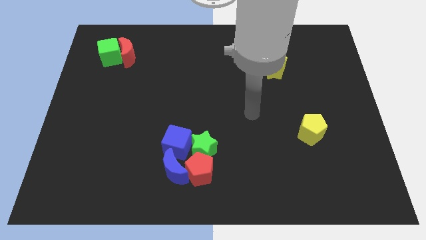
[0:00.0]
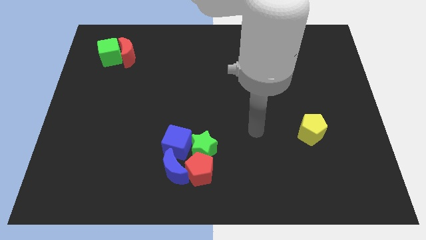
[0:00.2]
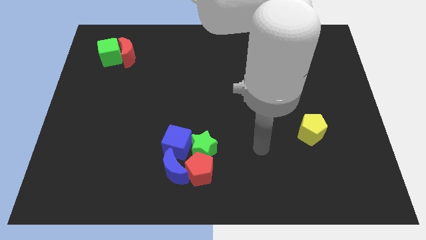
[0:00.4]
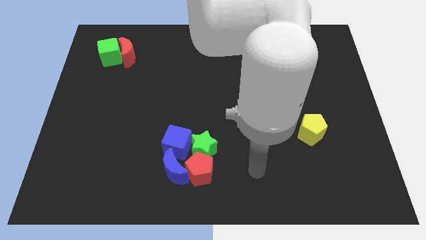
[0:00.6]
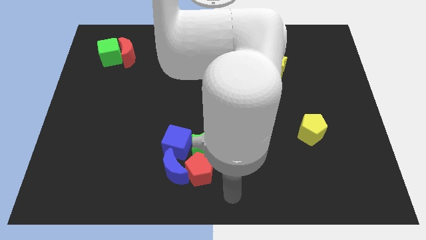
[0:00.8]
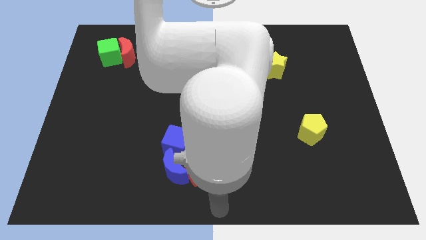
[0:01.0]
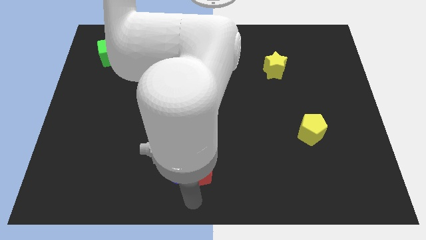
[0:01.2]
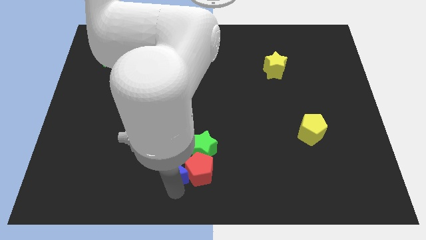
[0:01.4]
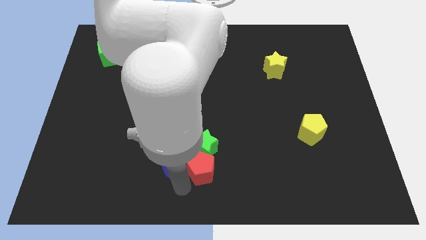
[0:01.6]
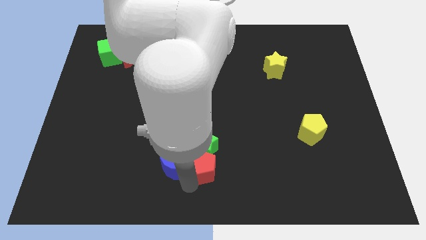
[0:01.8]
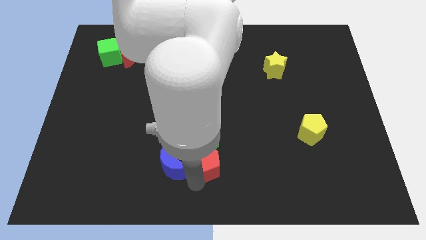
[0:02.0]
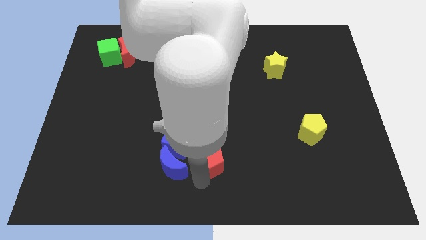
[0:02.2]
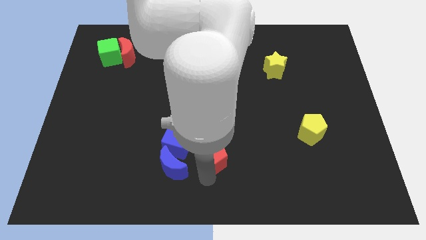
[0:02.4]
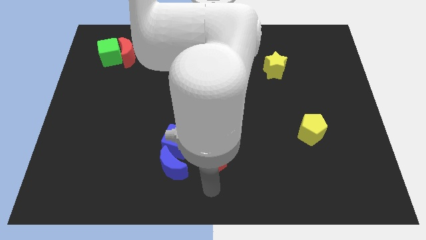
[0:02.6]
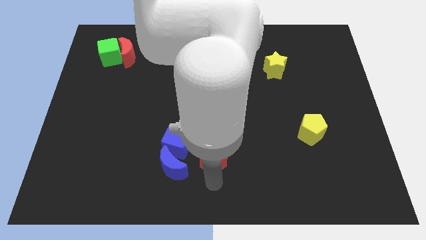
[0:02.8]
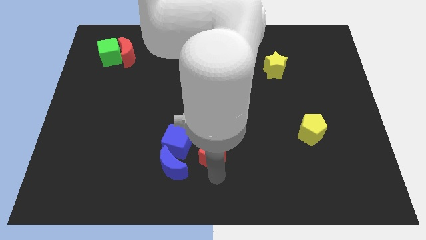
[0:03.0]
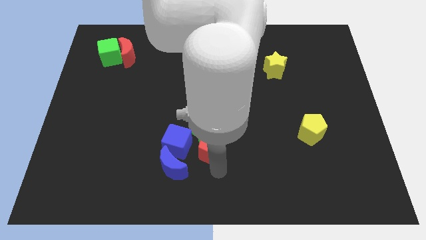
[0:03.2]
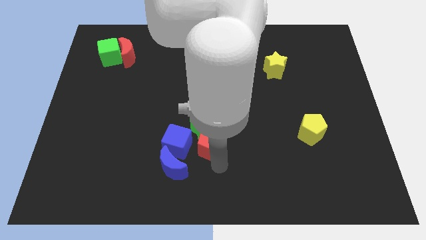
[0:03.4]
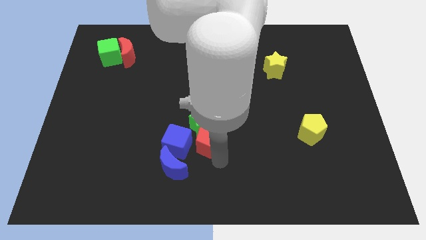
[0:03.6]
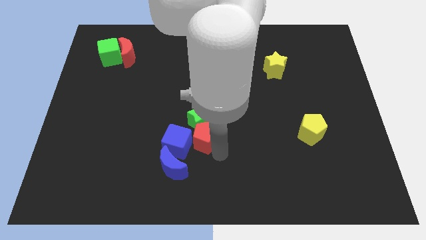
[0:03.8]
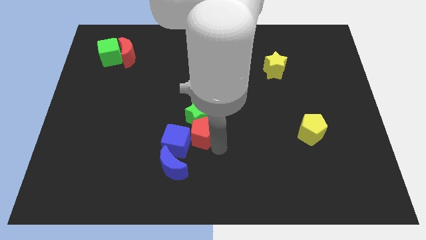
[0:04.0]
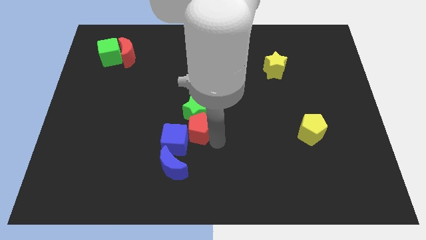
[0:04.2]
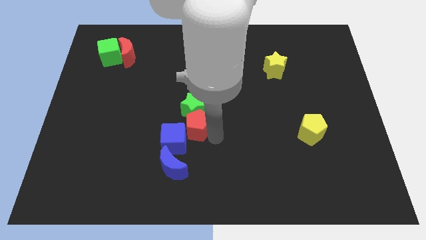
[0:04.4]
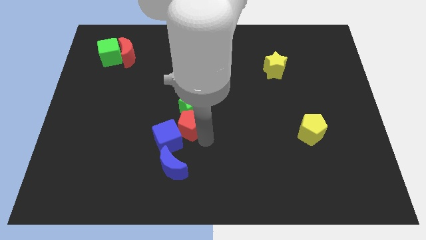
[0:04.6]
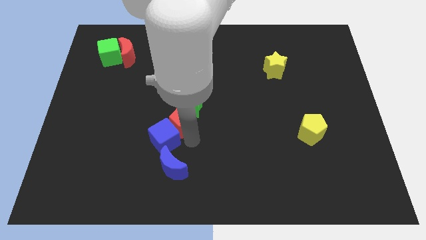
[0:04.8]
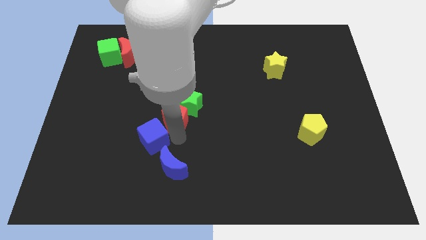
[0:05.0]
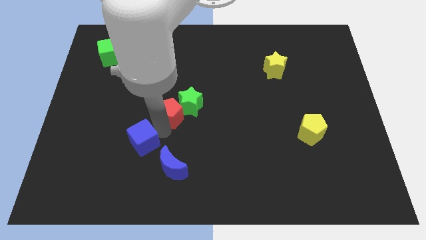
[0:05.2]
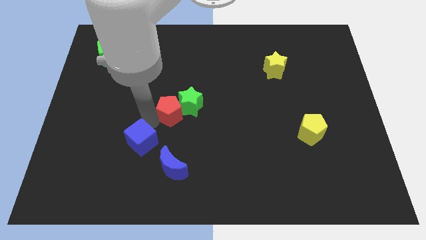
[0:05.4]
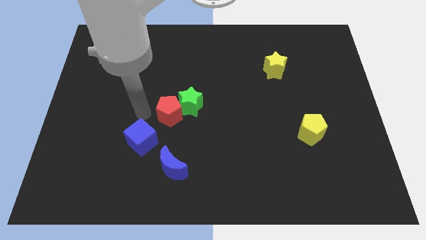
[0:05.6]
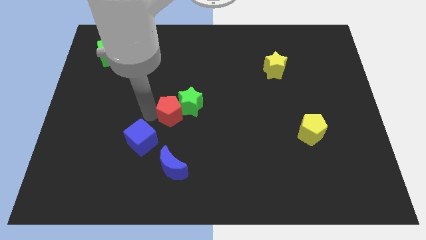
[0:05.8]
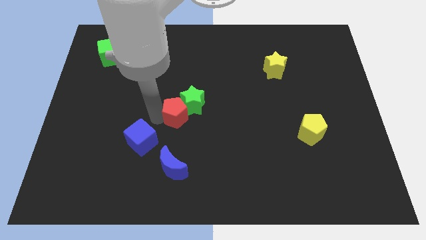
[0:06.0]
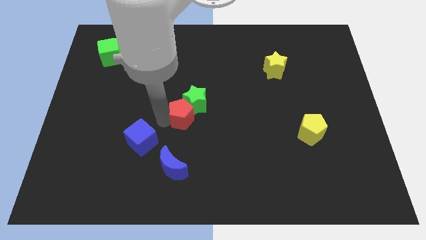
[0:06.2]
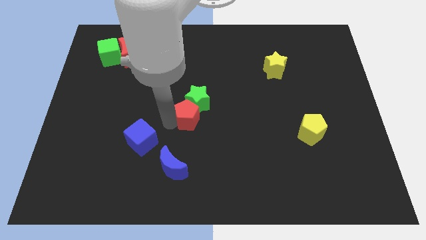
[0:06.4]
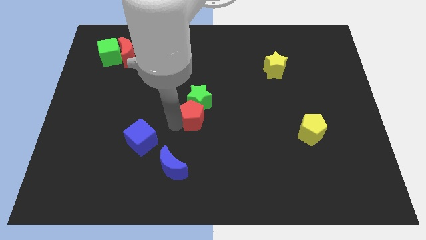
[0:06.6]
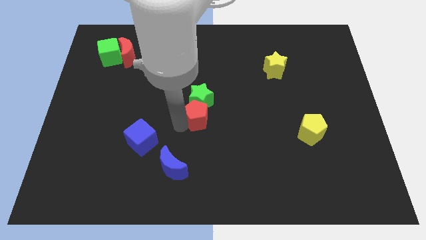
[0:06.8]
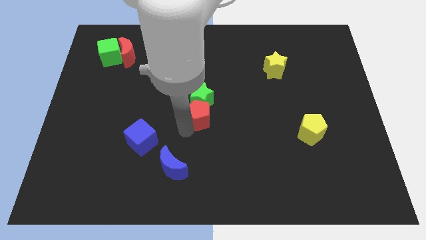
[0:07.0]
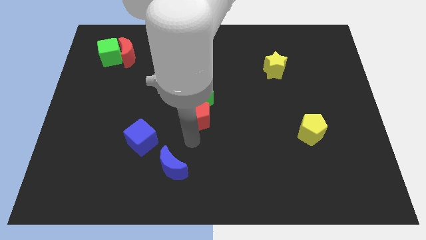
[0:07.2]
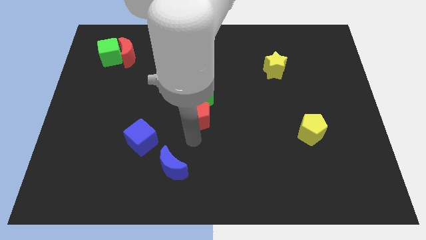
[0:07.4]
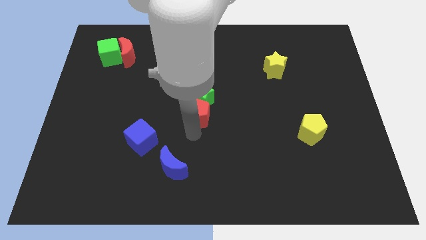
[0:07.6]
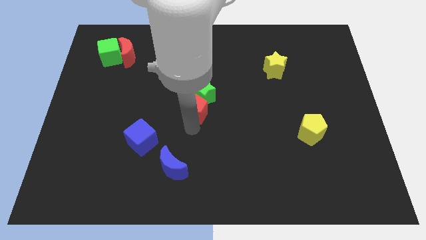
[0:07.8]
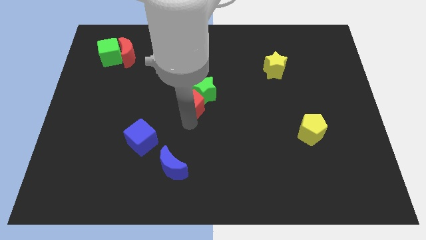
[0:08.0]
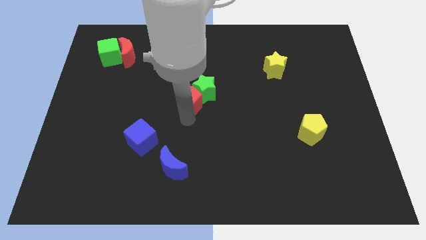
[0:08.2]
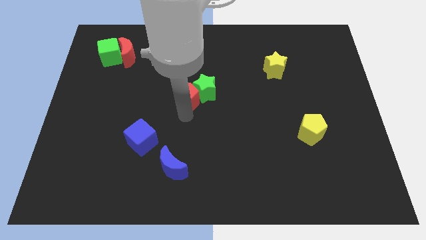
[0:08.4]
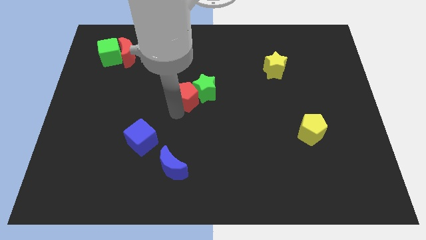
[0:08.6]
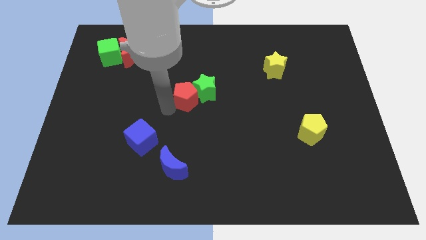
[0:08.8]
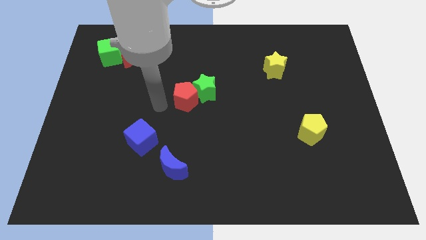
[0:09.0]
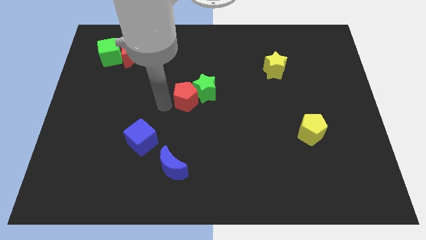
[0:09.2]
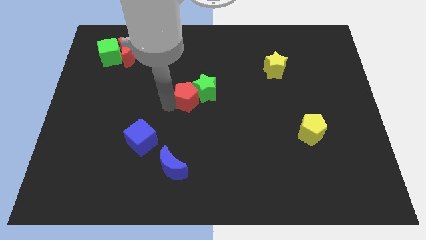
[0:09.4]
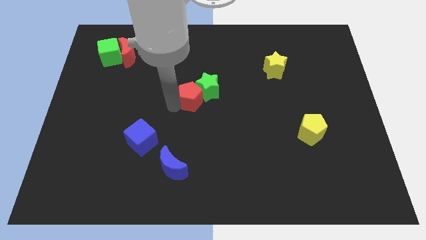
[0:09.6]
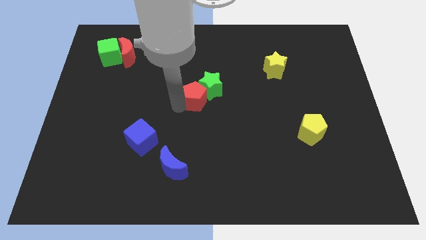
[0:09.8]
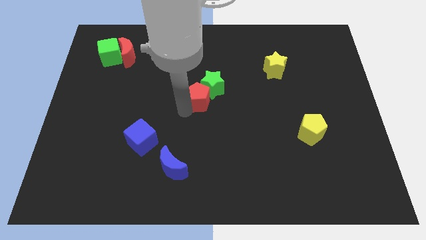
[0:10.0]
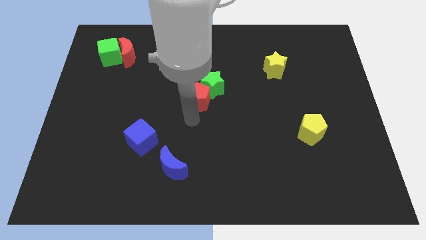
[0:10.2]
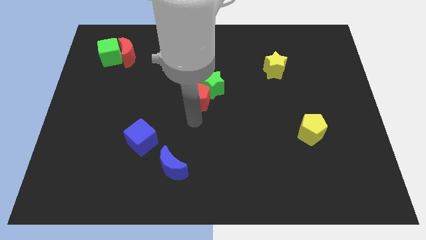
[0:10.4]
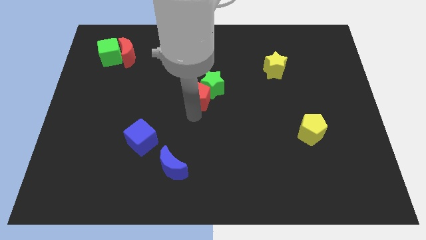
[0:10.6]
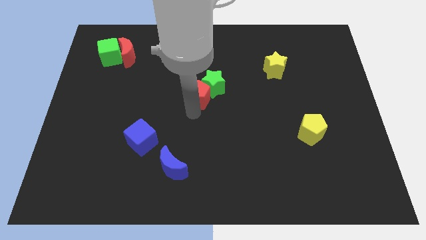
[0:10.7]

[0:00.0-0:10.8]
push the red pentagon upwards

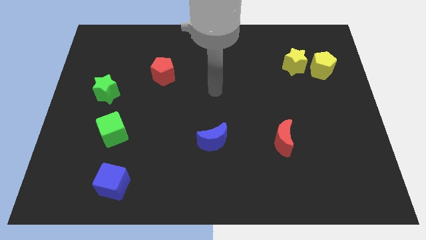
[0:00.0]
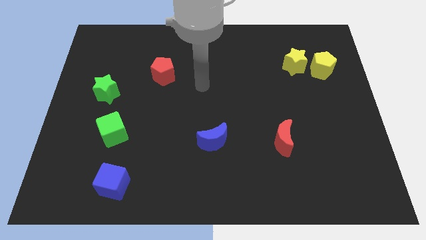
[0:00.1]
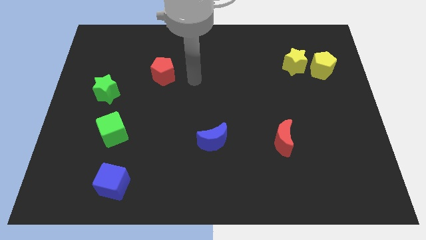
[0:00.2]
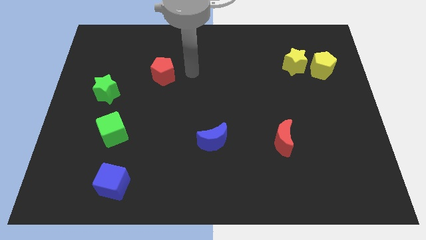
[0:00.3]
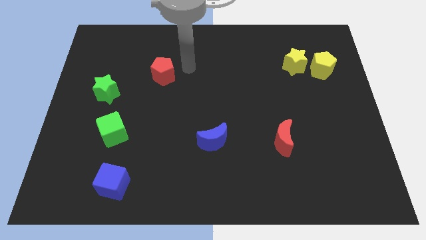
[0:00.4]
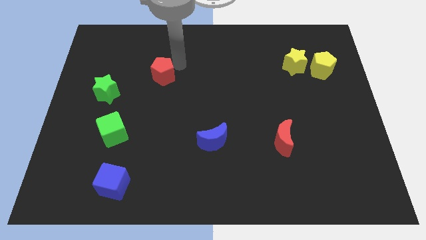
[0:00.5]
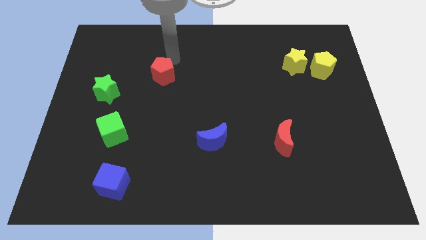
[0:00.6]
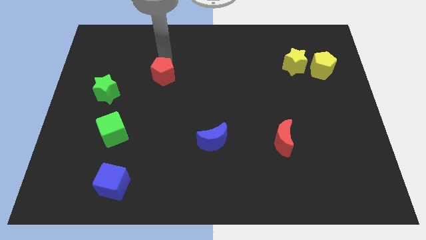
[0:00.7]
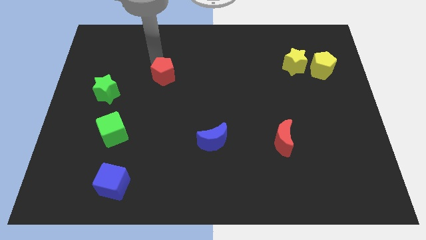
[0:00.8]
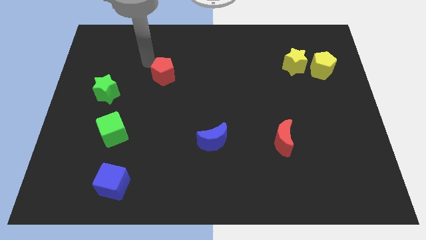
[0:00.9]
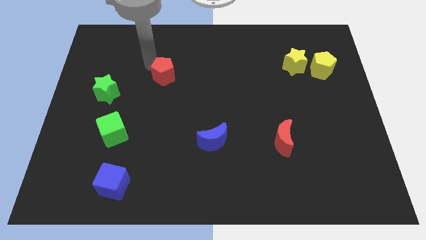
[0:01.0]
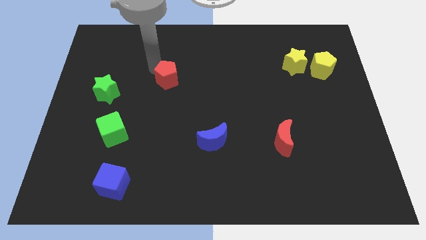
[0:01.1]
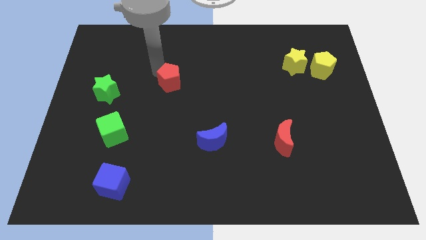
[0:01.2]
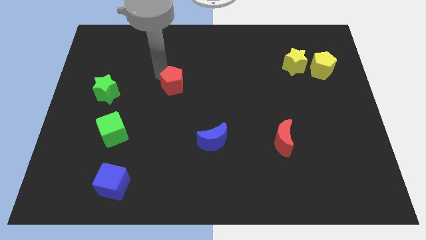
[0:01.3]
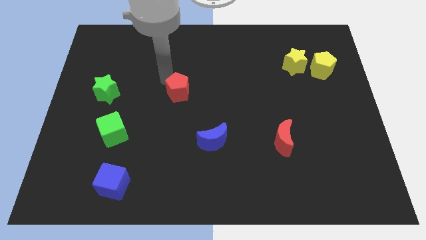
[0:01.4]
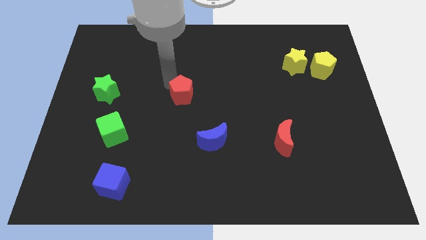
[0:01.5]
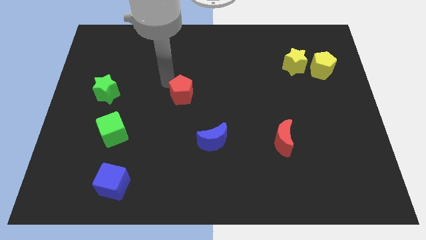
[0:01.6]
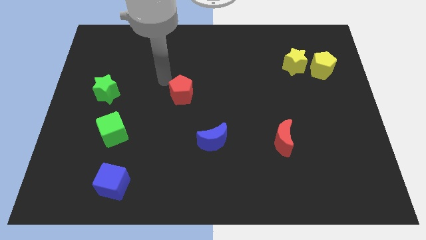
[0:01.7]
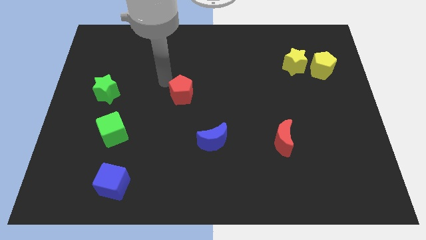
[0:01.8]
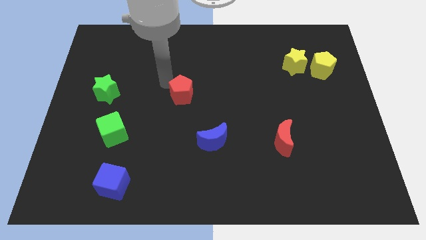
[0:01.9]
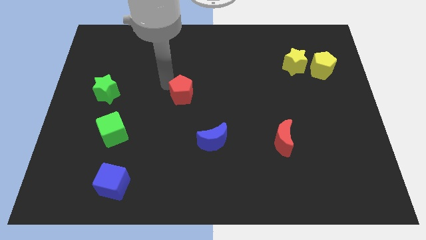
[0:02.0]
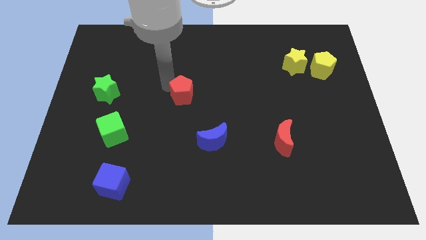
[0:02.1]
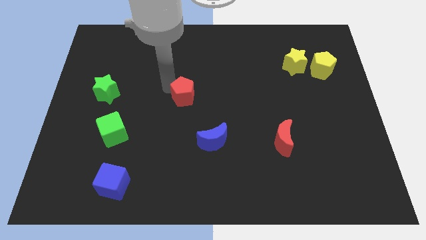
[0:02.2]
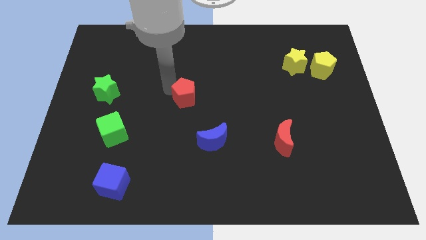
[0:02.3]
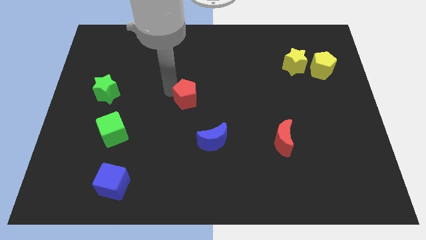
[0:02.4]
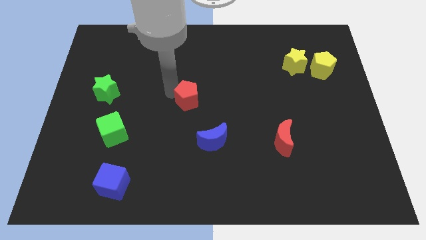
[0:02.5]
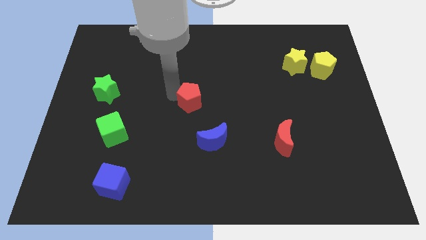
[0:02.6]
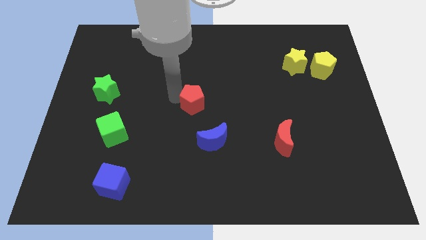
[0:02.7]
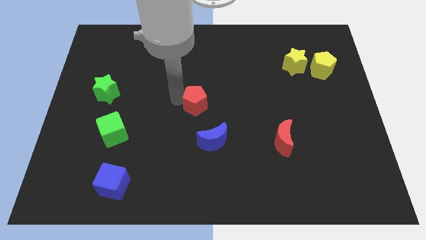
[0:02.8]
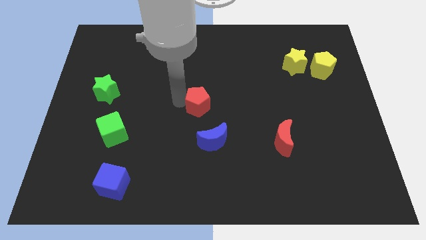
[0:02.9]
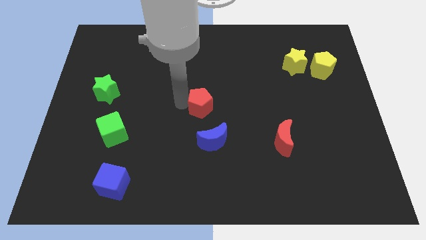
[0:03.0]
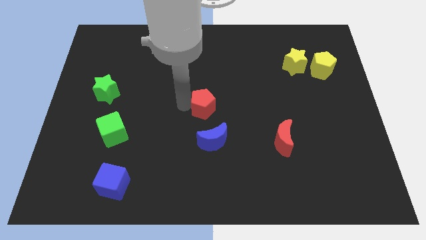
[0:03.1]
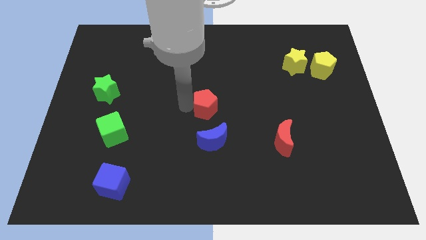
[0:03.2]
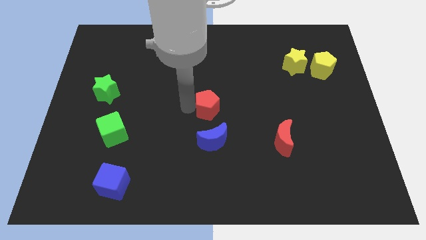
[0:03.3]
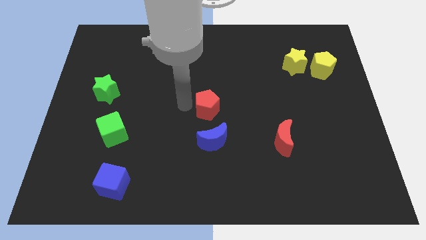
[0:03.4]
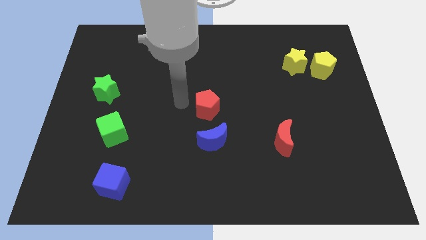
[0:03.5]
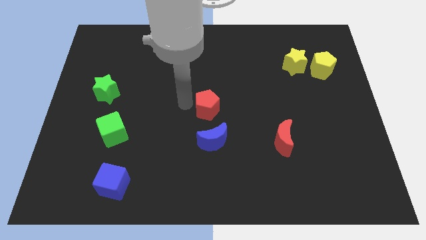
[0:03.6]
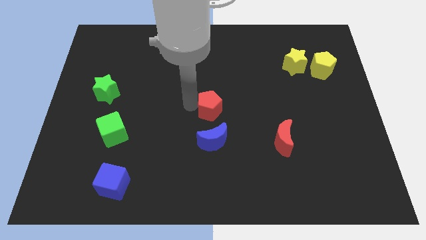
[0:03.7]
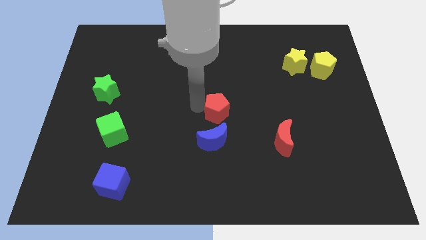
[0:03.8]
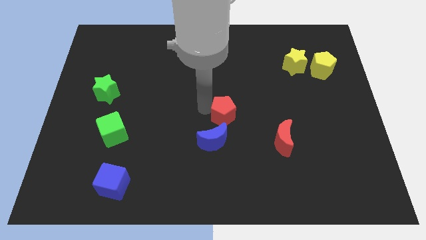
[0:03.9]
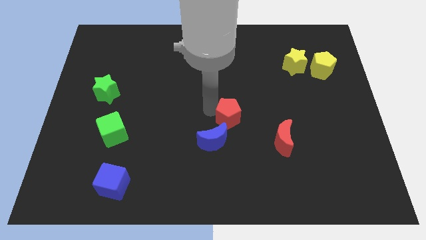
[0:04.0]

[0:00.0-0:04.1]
move the red pentagon diagonally downwards and right
